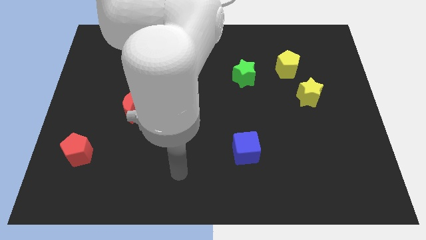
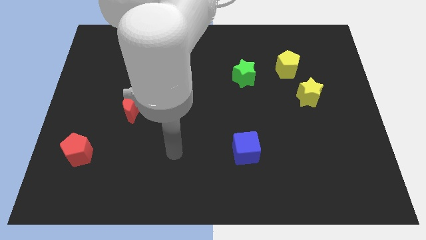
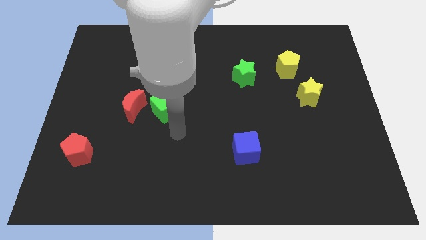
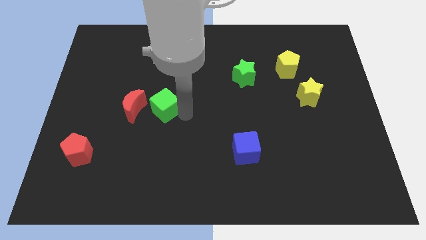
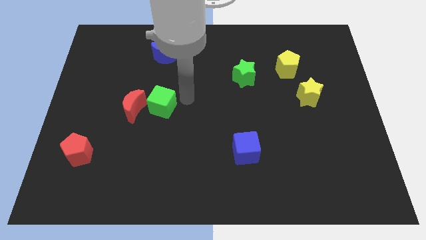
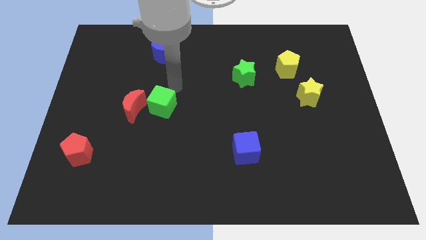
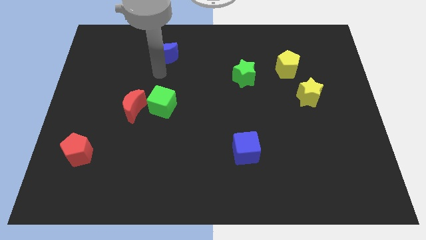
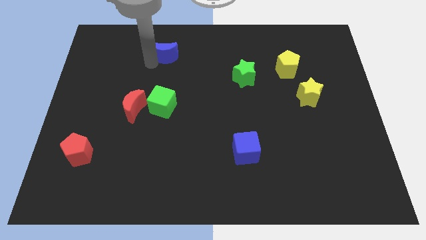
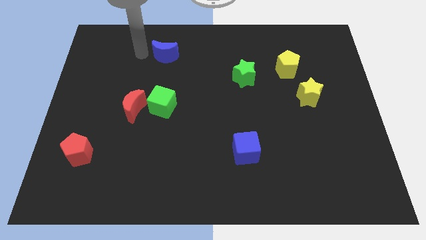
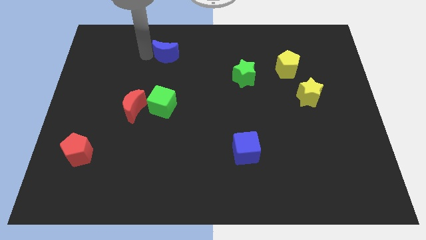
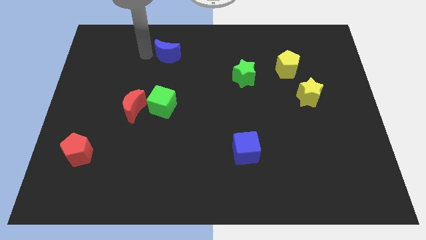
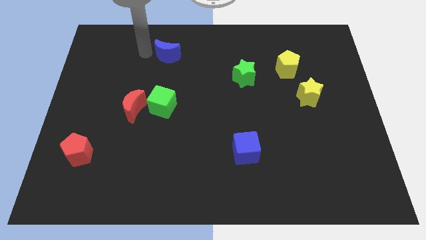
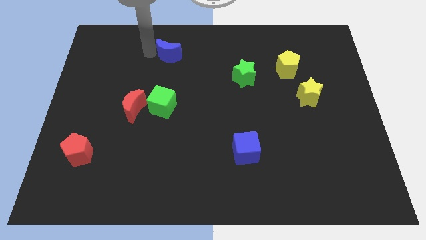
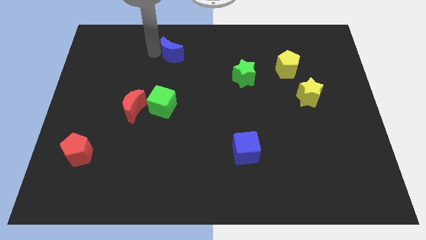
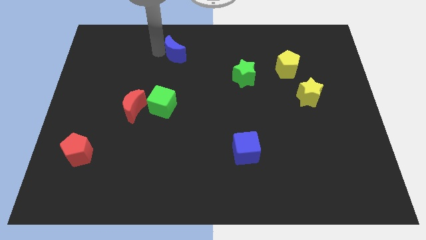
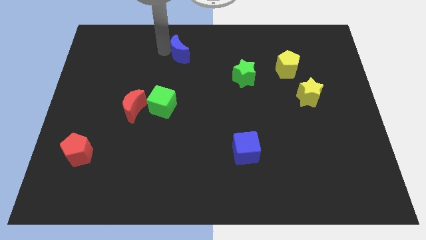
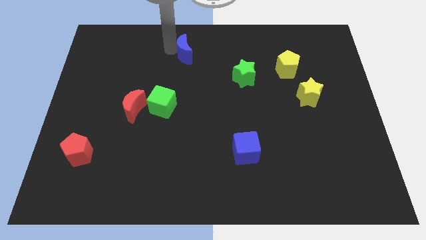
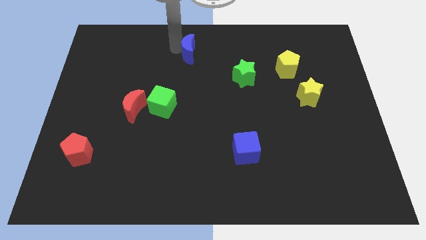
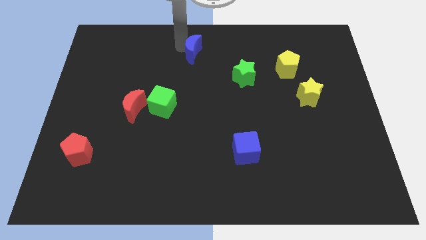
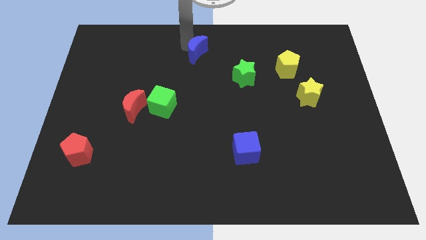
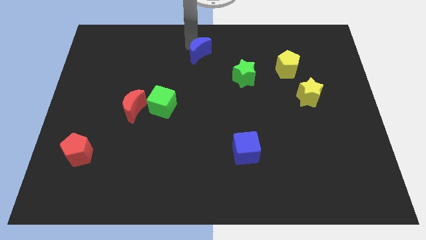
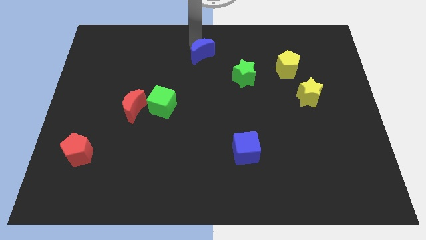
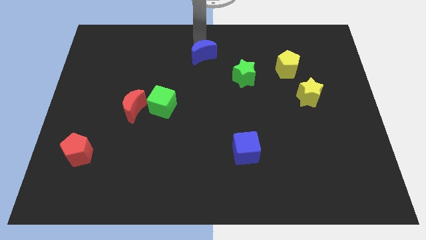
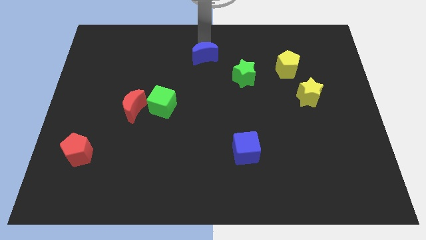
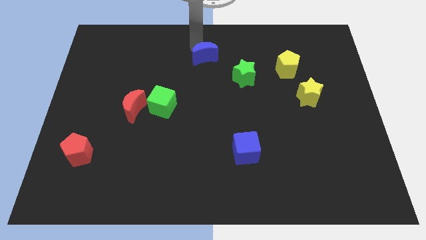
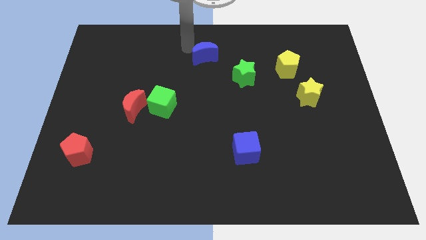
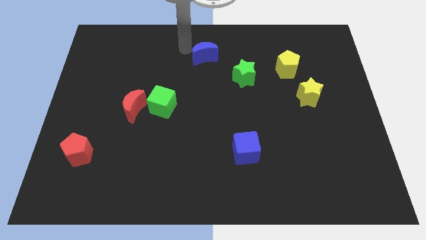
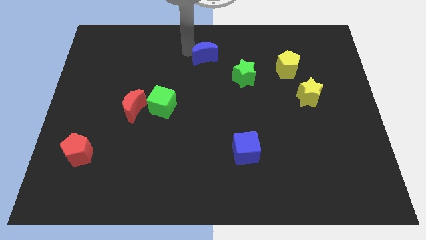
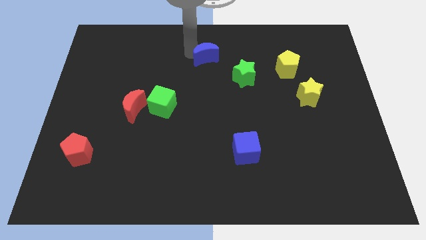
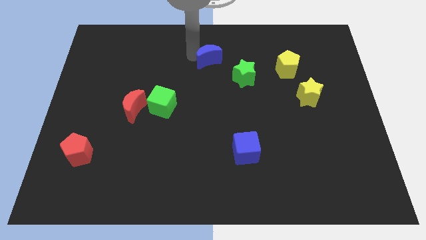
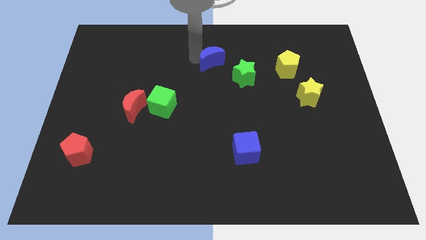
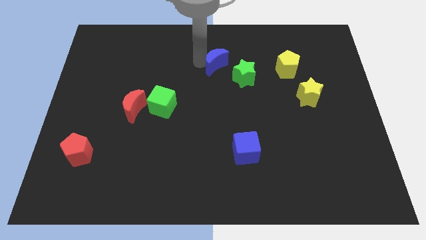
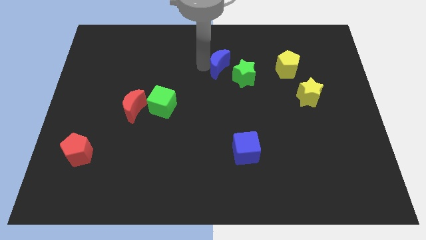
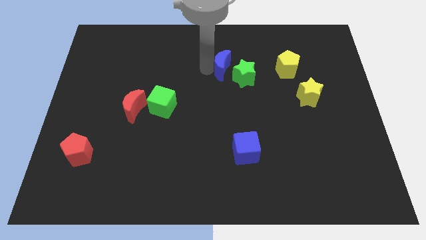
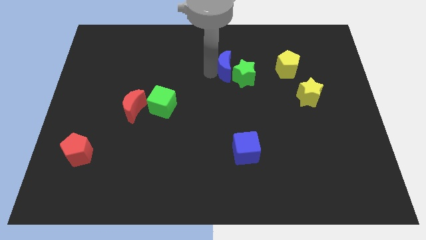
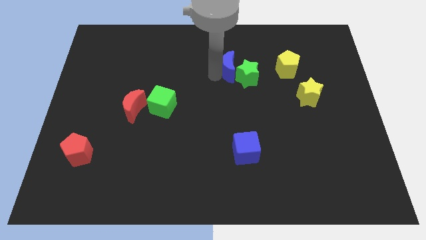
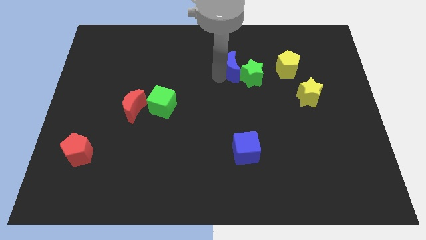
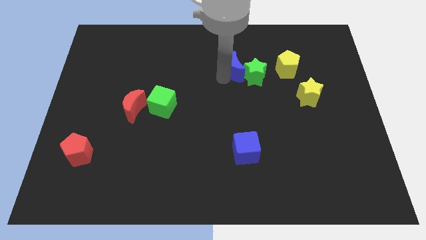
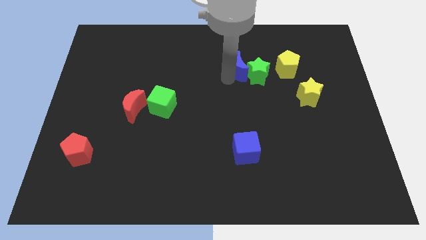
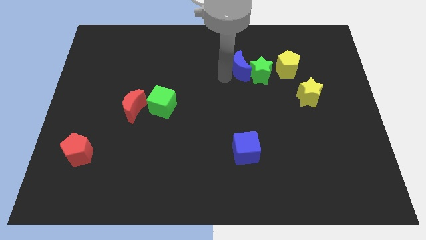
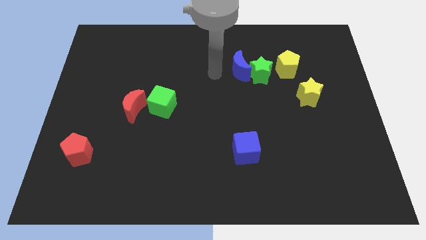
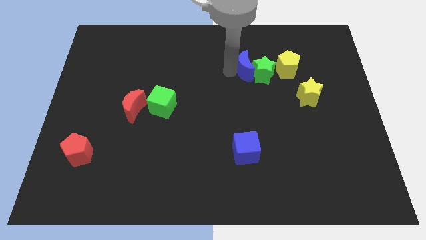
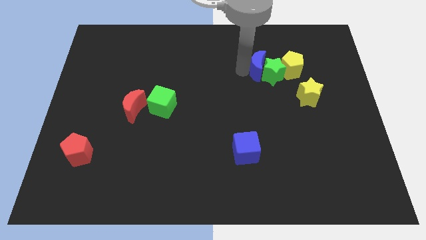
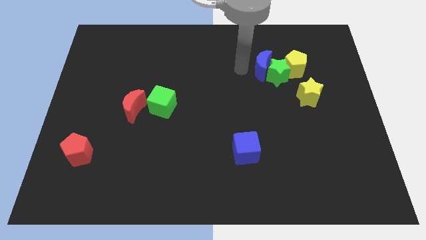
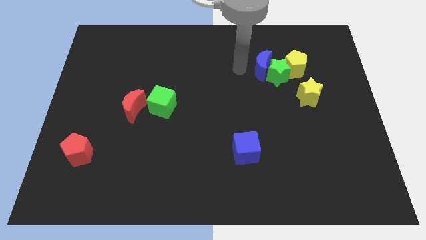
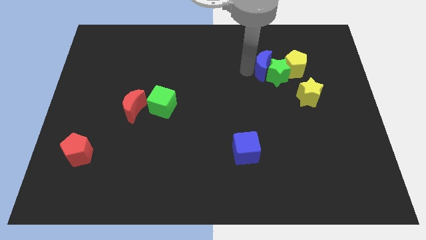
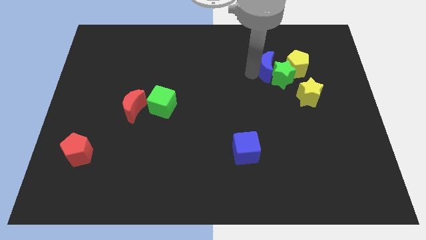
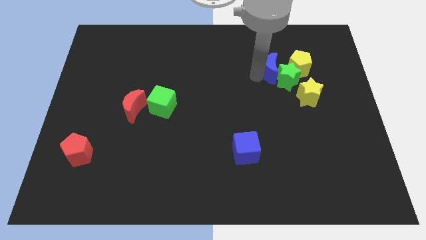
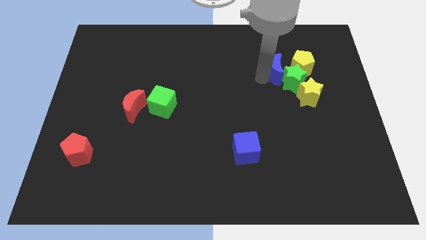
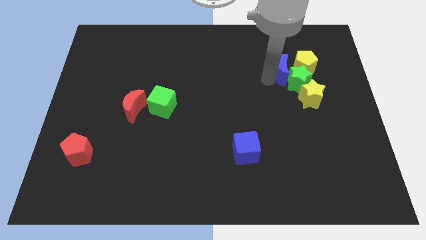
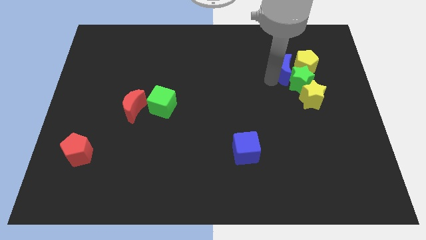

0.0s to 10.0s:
move the blue moon towards the yellow pentagon

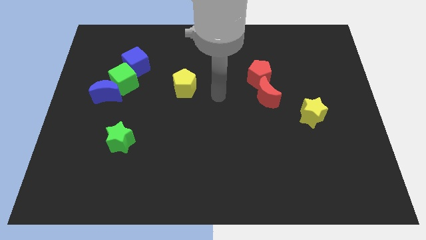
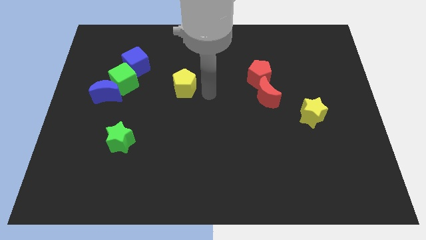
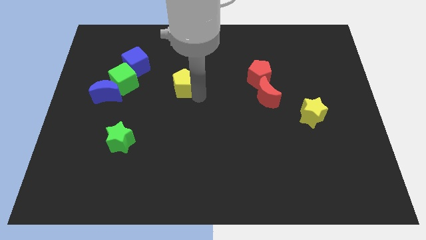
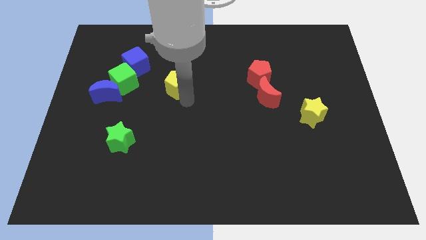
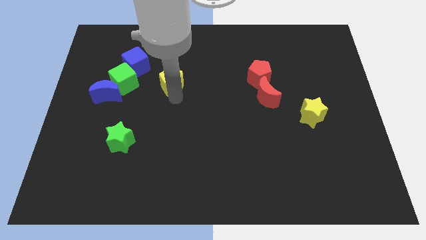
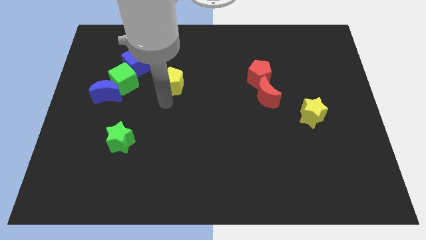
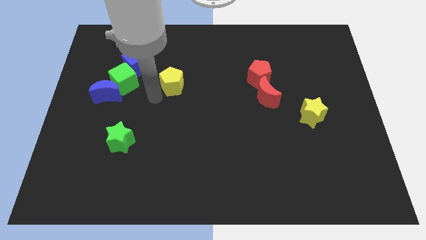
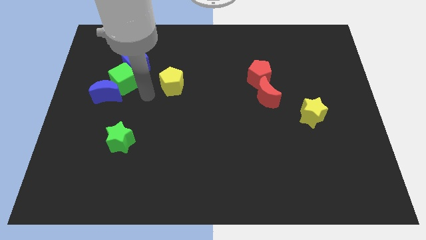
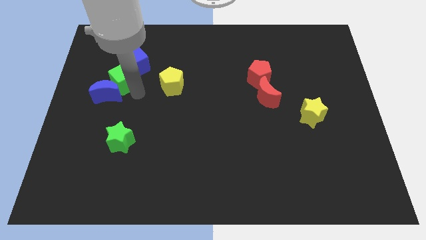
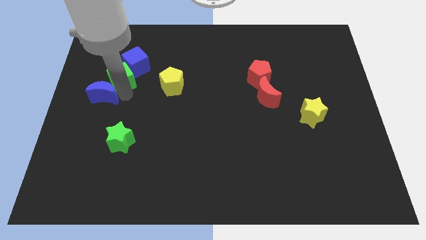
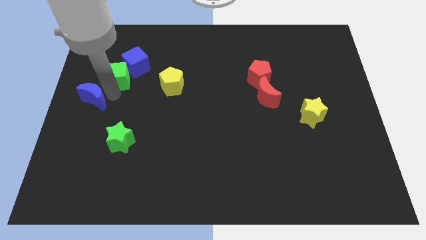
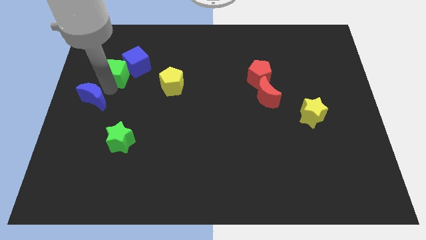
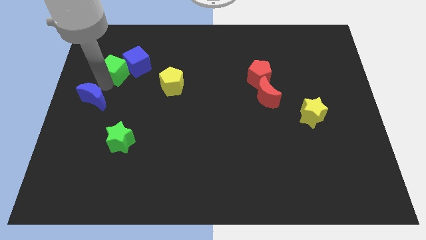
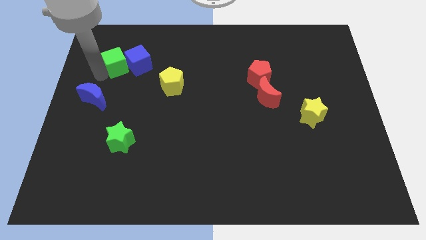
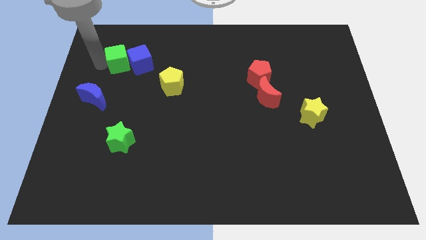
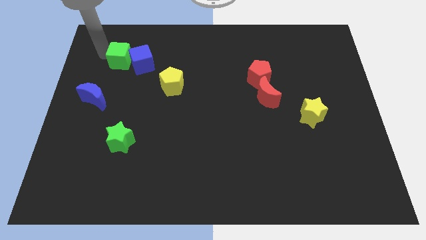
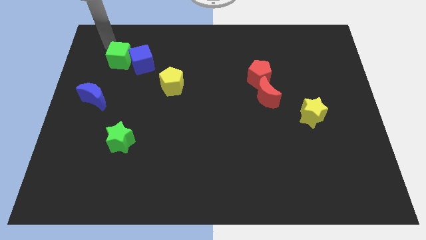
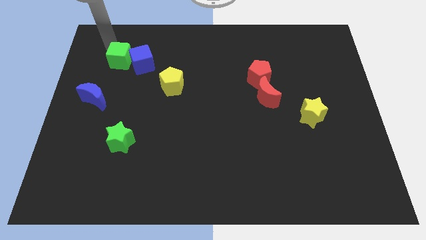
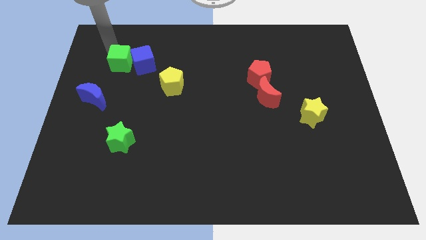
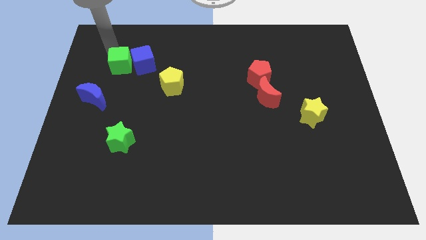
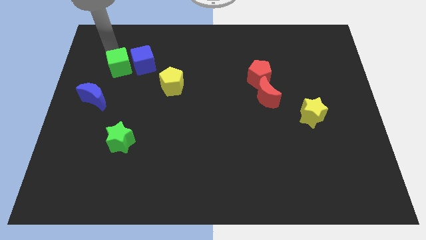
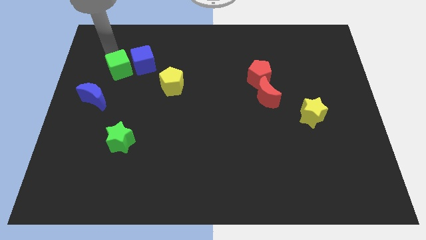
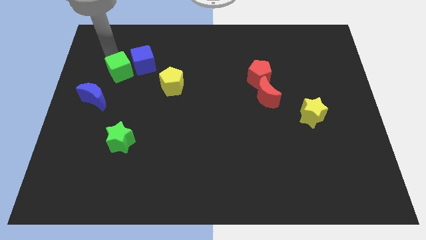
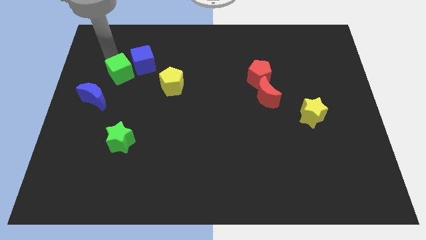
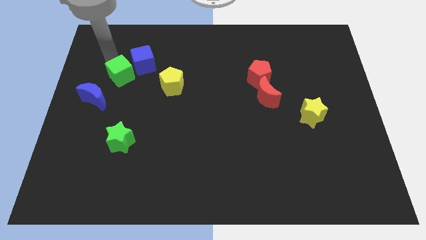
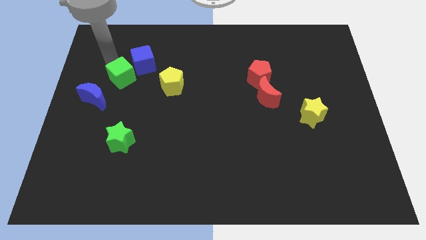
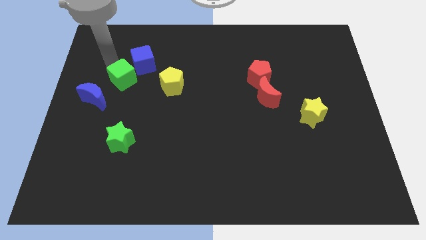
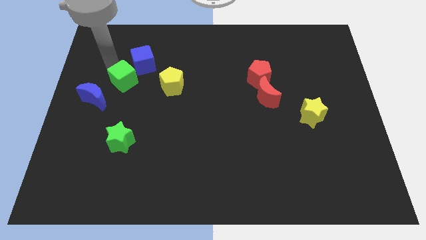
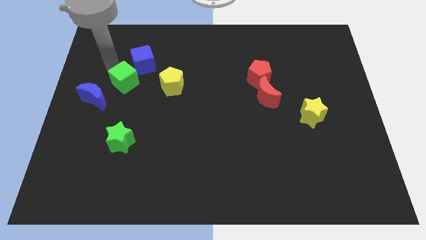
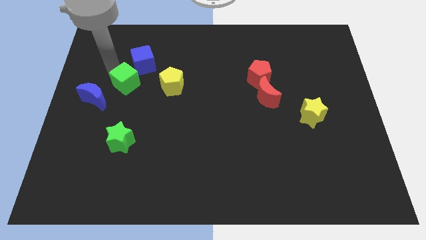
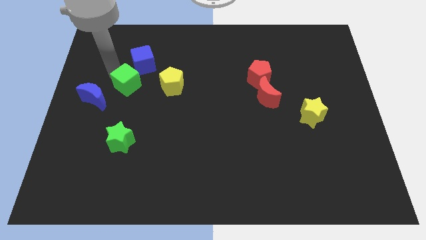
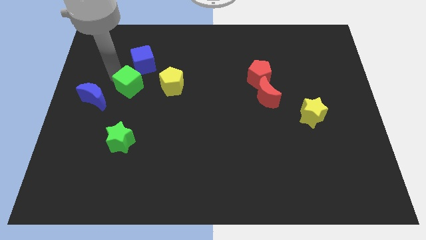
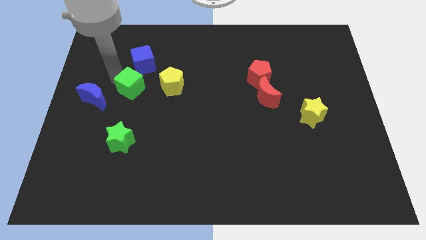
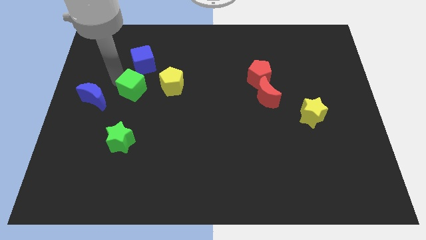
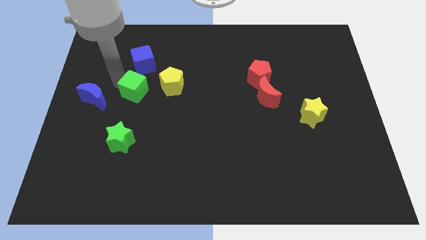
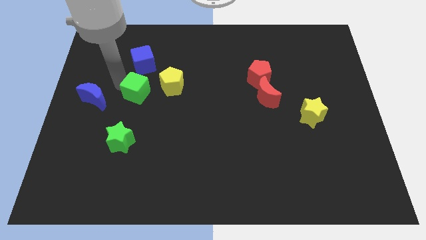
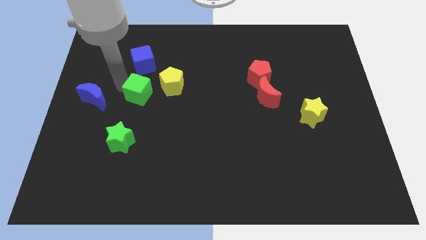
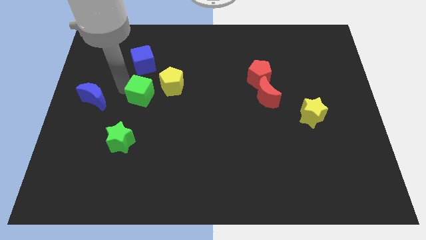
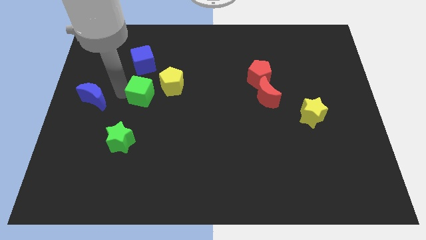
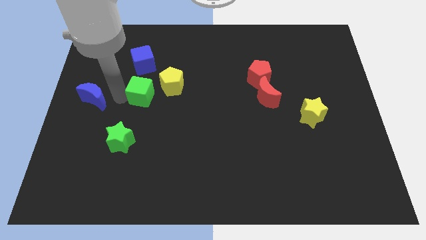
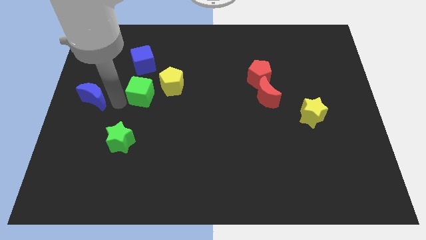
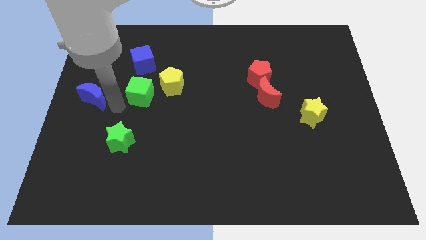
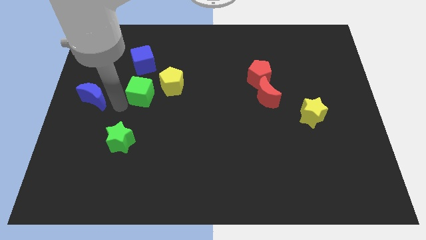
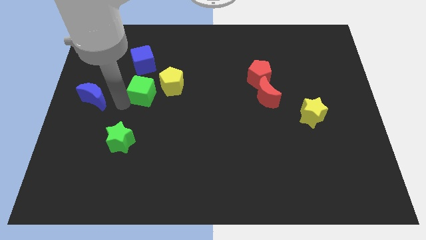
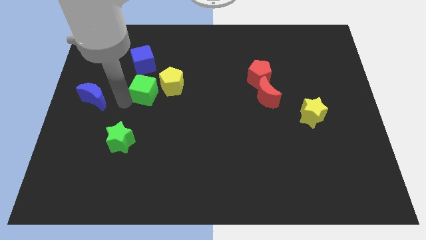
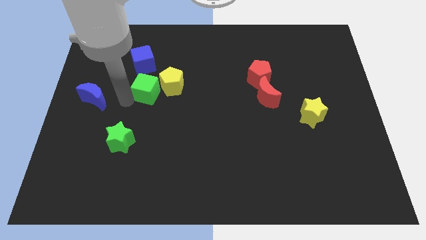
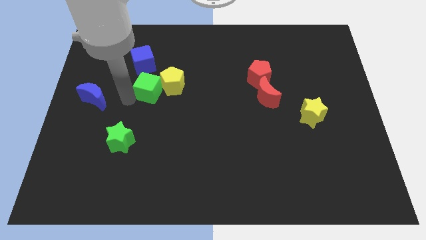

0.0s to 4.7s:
push the green cube towards the yellow pentagon
